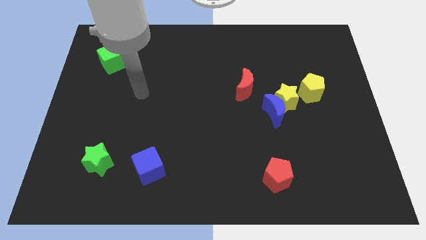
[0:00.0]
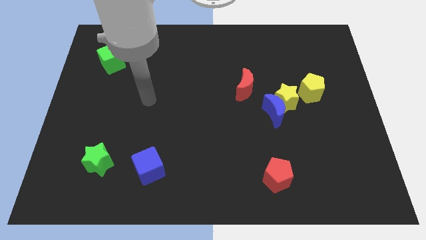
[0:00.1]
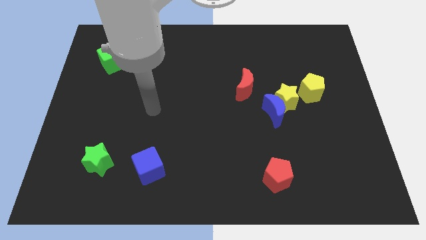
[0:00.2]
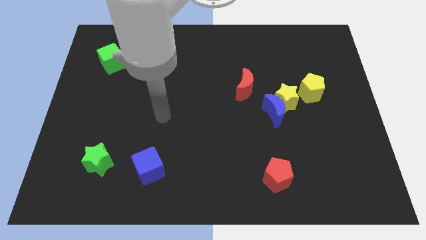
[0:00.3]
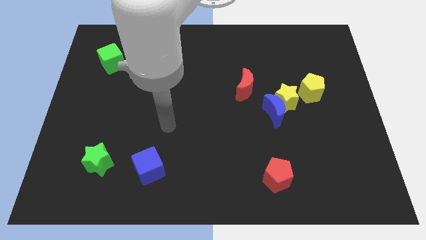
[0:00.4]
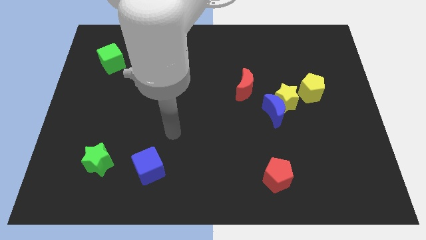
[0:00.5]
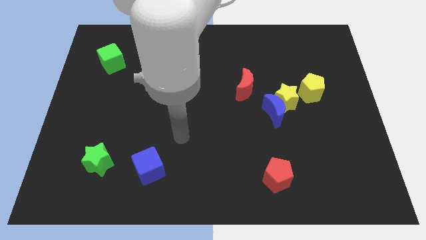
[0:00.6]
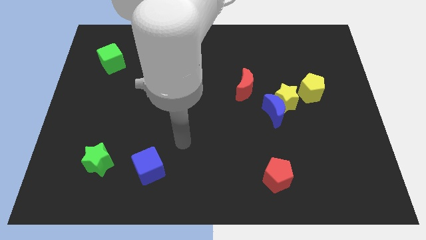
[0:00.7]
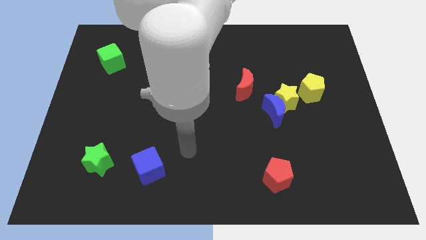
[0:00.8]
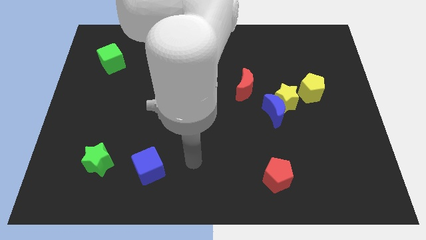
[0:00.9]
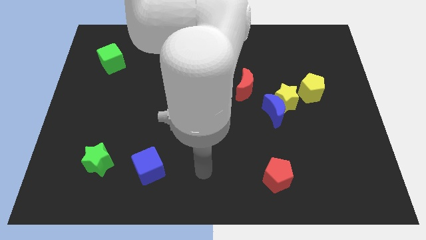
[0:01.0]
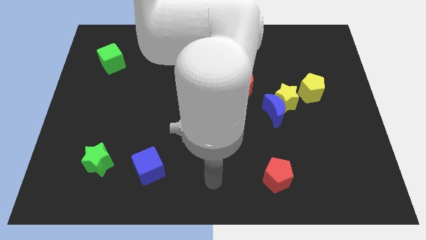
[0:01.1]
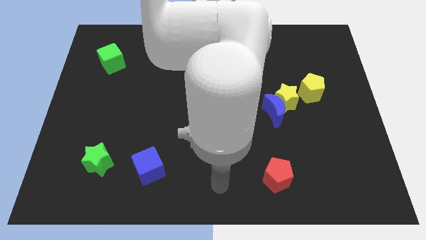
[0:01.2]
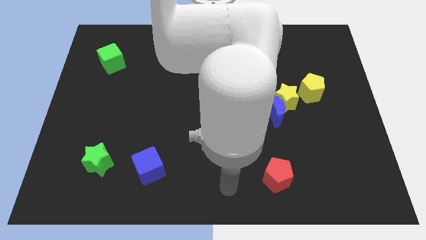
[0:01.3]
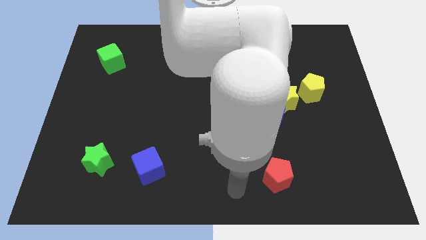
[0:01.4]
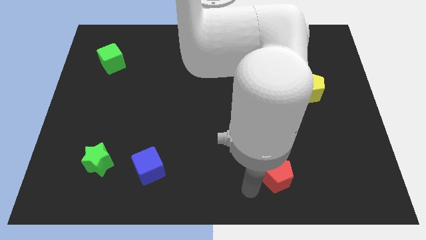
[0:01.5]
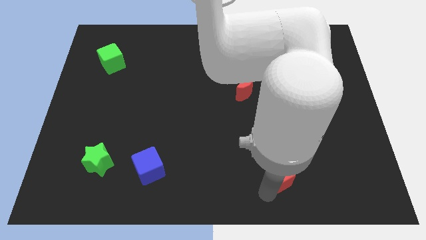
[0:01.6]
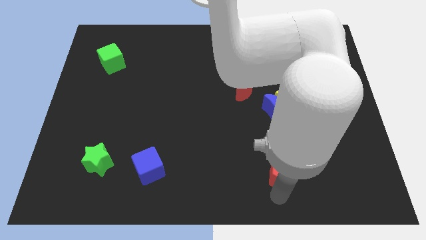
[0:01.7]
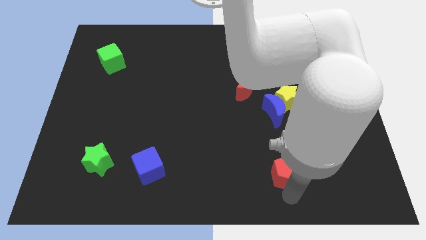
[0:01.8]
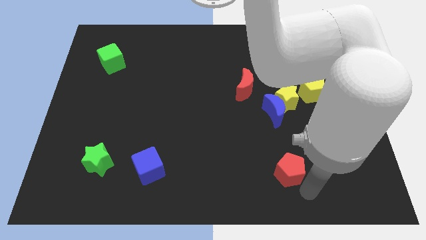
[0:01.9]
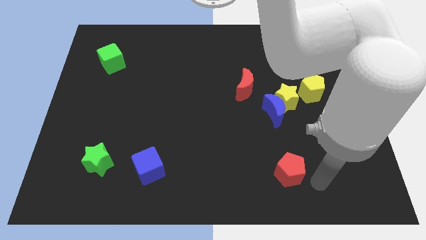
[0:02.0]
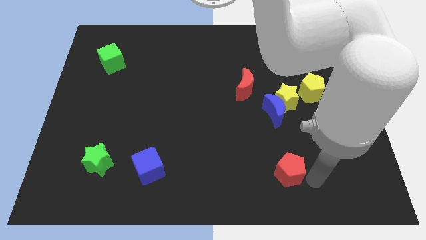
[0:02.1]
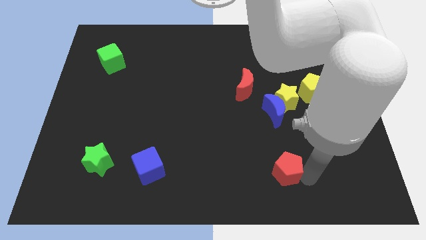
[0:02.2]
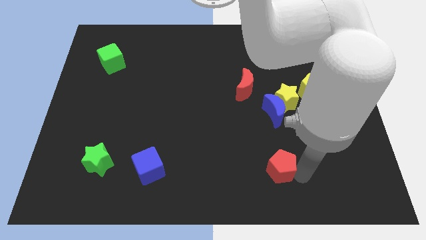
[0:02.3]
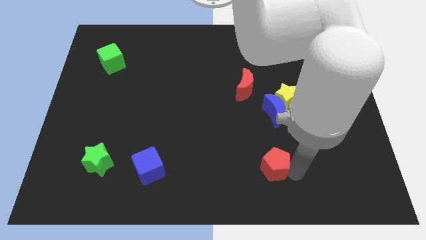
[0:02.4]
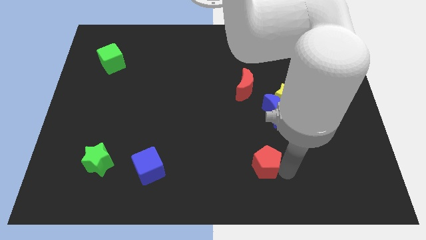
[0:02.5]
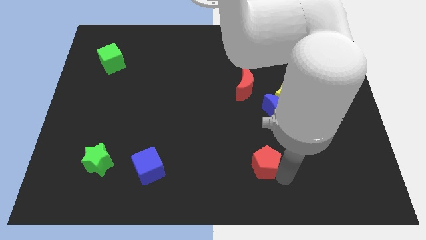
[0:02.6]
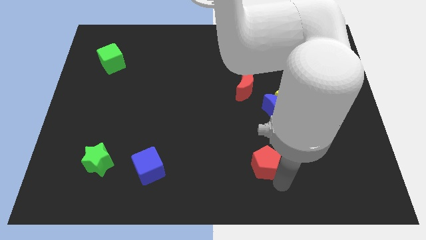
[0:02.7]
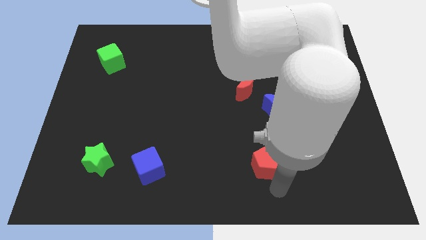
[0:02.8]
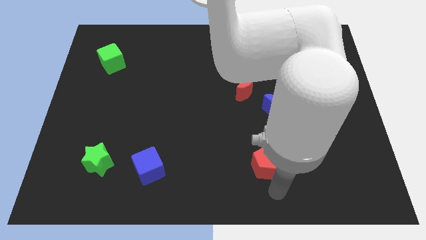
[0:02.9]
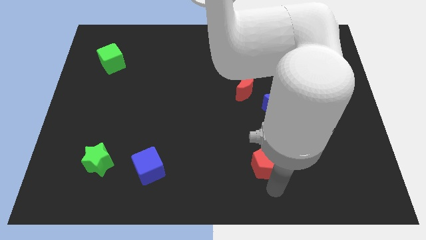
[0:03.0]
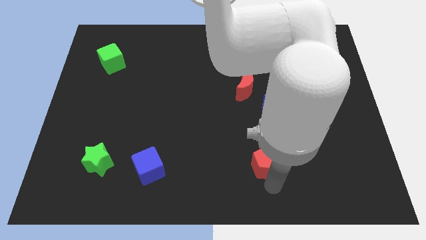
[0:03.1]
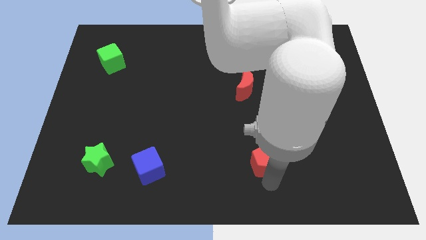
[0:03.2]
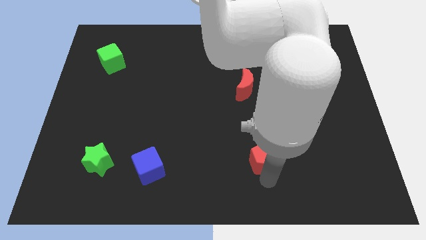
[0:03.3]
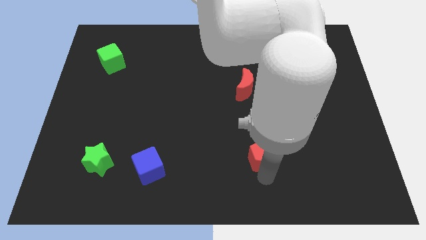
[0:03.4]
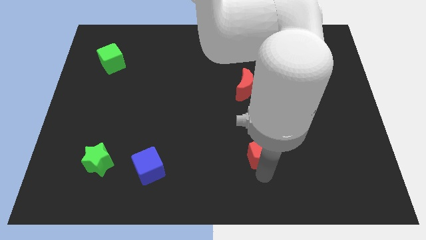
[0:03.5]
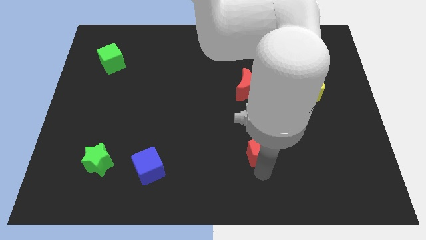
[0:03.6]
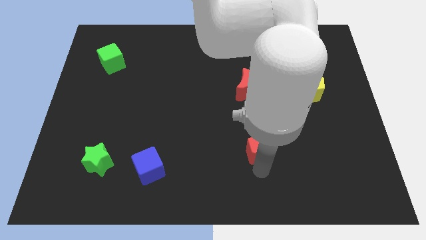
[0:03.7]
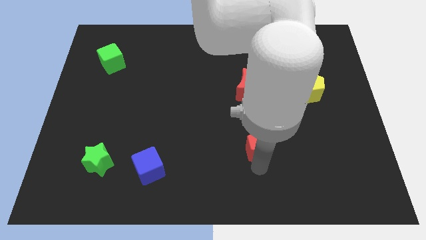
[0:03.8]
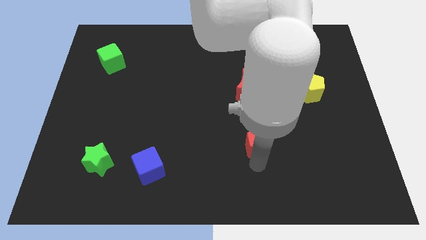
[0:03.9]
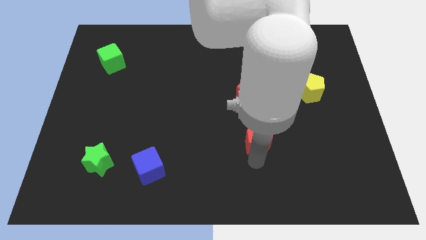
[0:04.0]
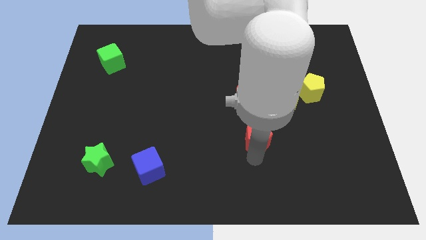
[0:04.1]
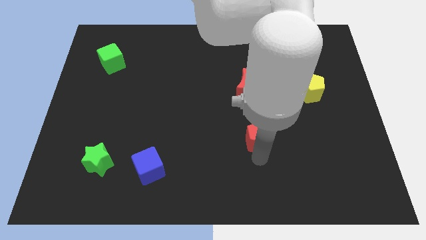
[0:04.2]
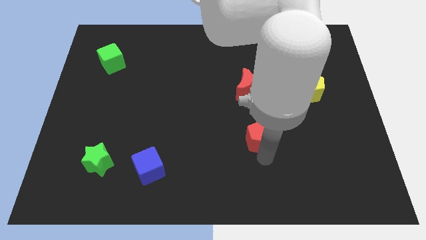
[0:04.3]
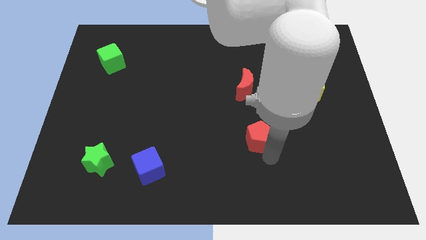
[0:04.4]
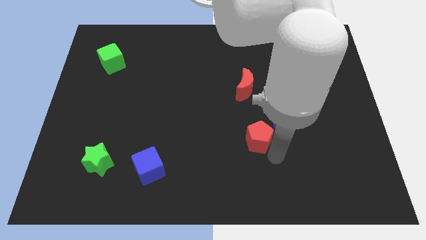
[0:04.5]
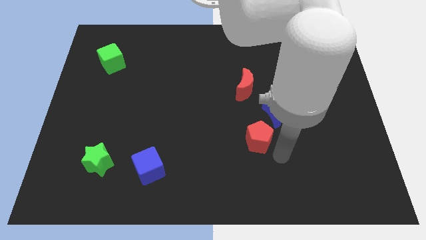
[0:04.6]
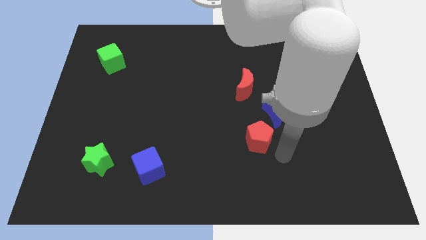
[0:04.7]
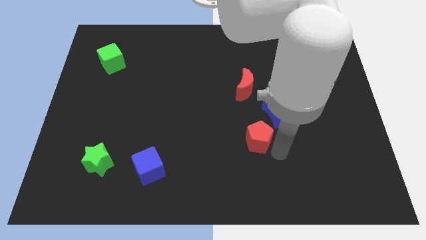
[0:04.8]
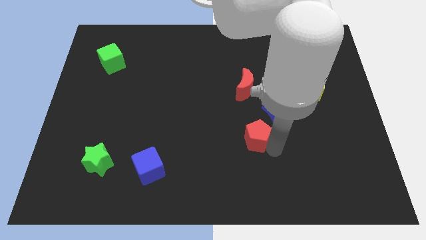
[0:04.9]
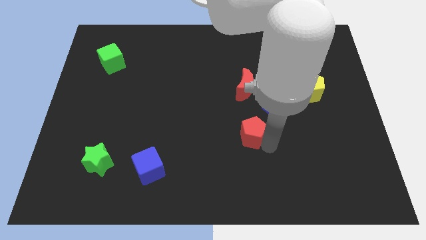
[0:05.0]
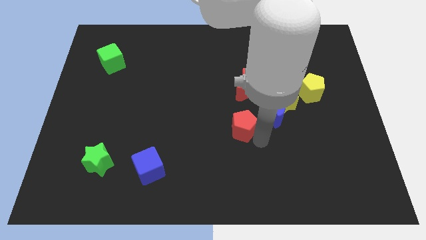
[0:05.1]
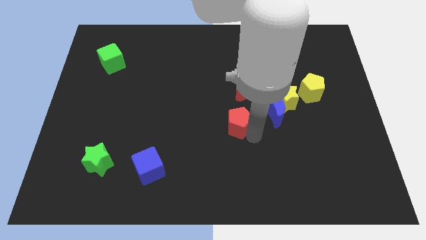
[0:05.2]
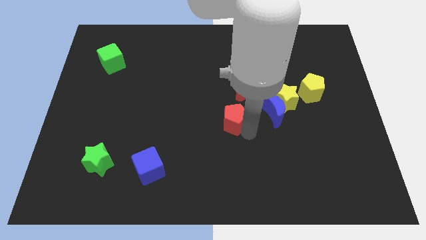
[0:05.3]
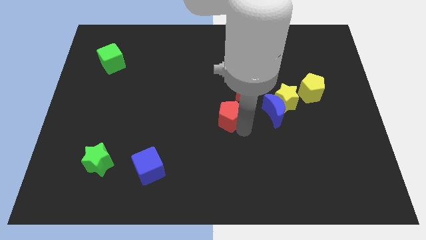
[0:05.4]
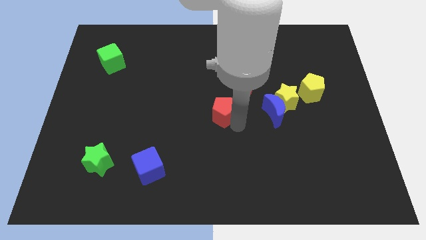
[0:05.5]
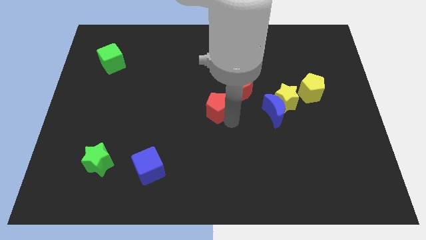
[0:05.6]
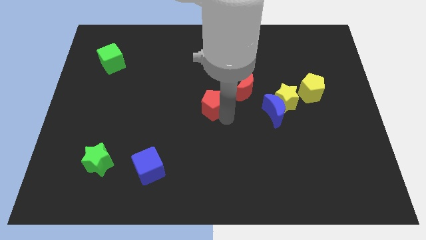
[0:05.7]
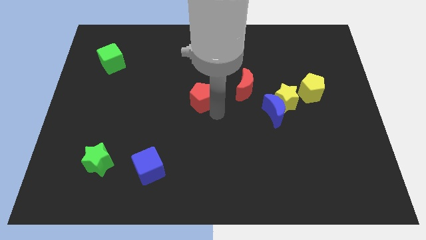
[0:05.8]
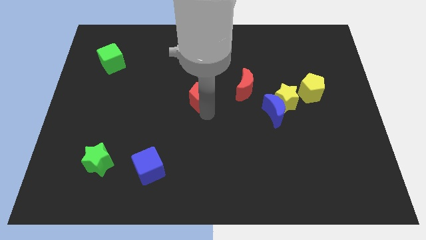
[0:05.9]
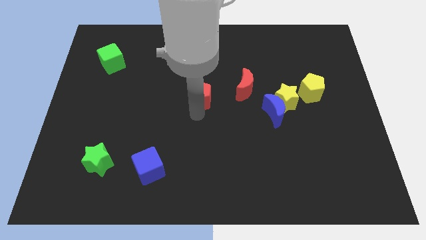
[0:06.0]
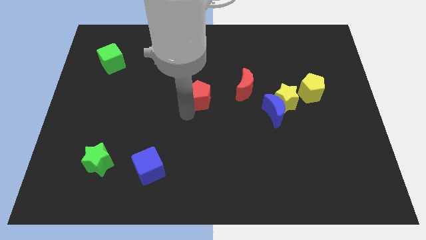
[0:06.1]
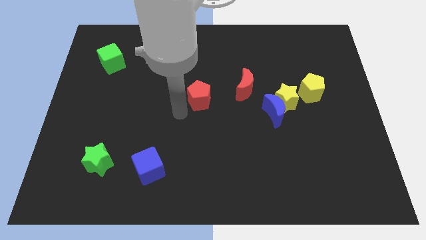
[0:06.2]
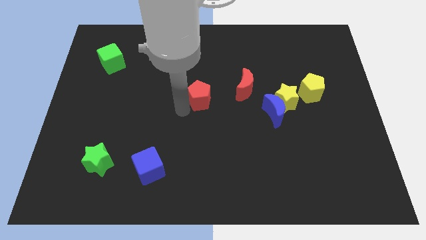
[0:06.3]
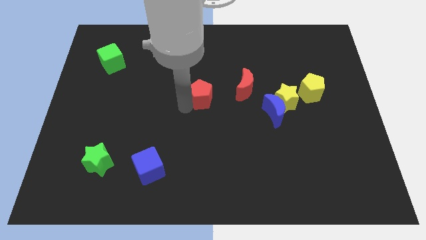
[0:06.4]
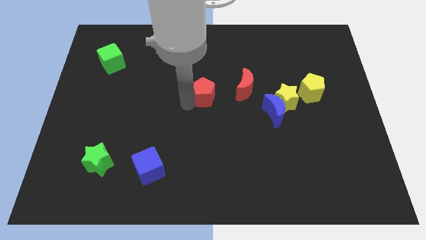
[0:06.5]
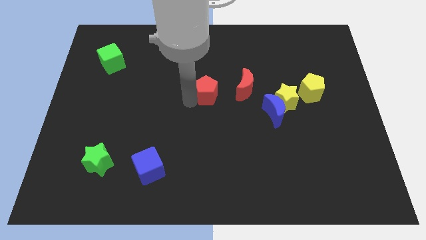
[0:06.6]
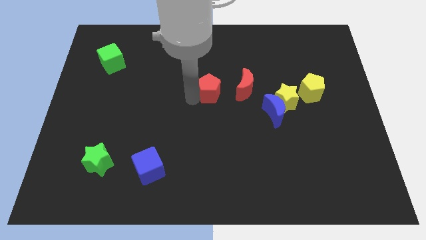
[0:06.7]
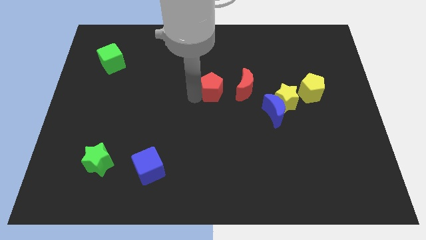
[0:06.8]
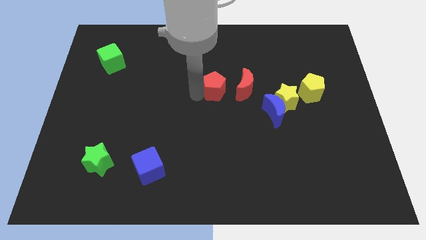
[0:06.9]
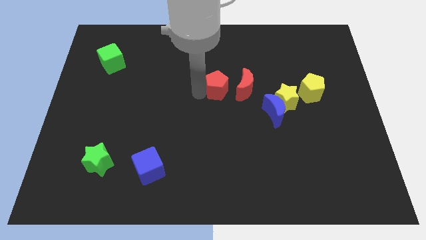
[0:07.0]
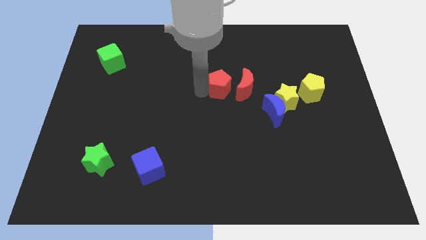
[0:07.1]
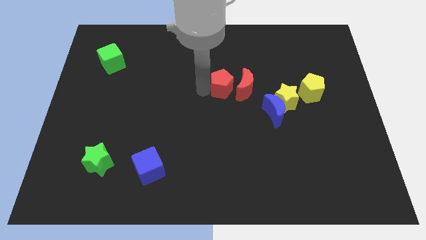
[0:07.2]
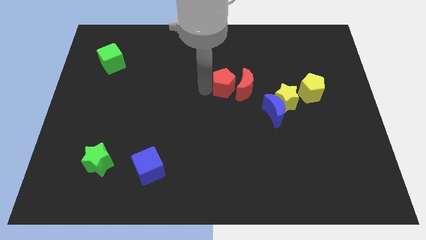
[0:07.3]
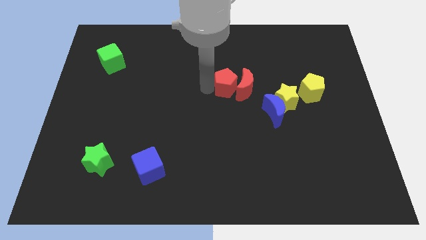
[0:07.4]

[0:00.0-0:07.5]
push the red pentagon upwards

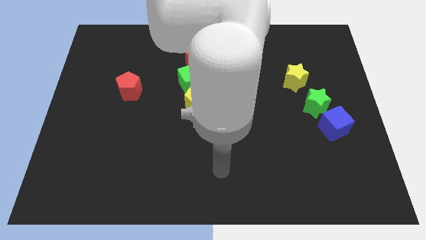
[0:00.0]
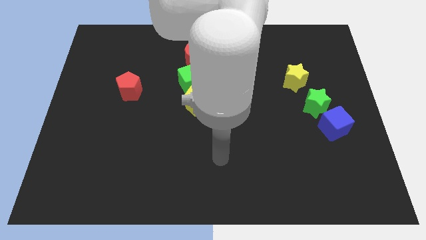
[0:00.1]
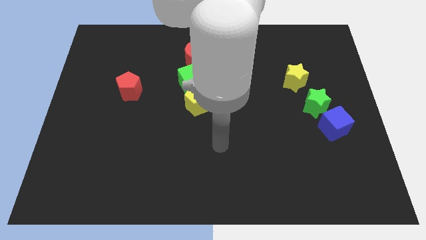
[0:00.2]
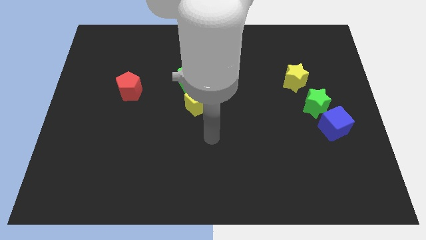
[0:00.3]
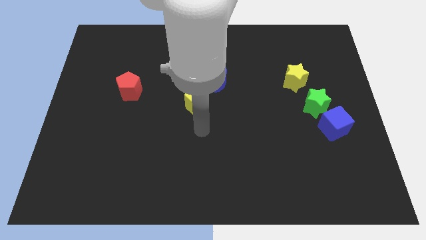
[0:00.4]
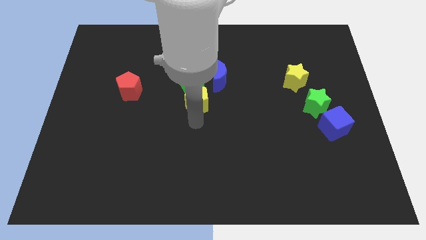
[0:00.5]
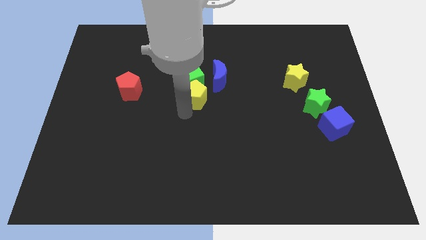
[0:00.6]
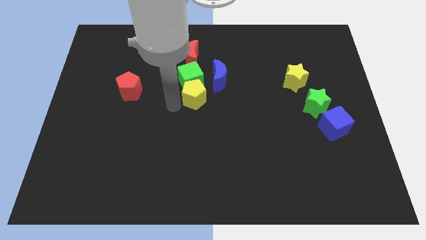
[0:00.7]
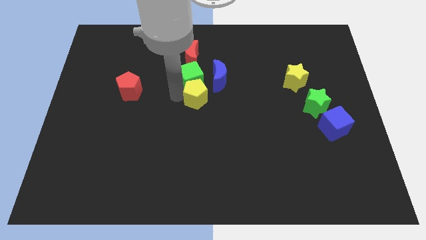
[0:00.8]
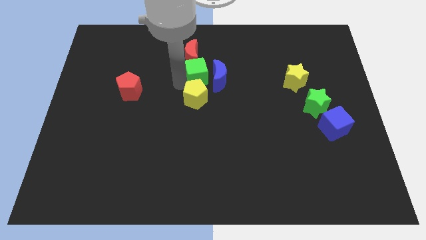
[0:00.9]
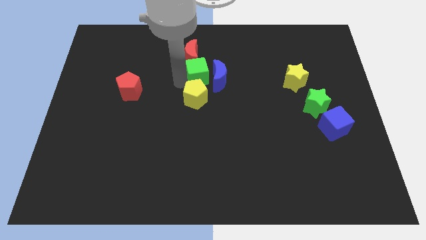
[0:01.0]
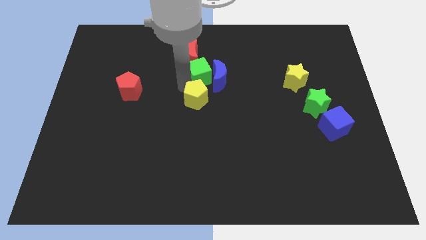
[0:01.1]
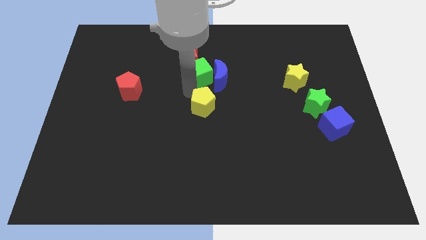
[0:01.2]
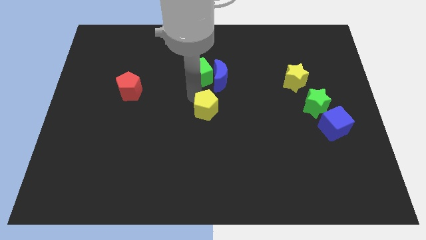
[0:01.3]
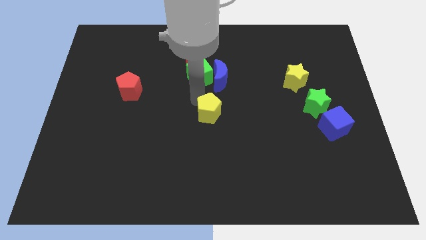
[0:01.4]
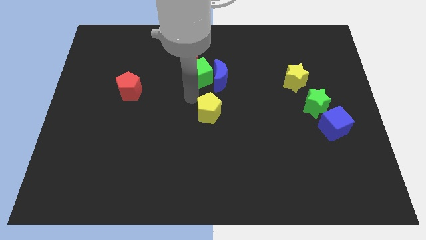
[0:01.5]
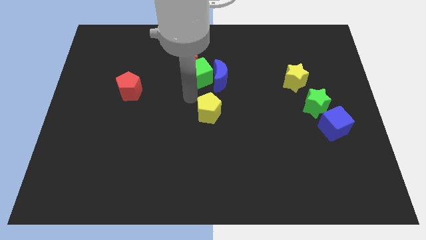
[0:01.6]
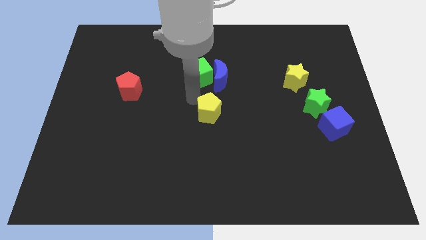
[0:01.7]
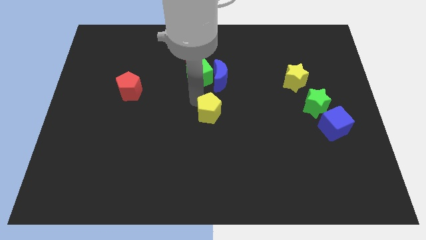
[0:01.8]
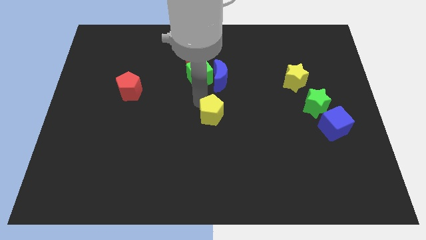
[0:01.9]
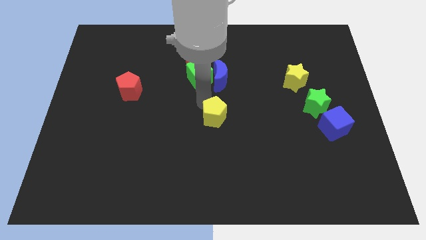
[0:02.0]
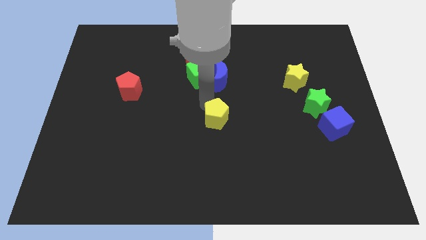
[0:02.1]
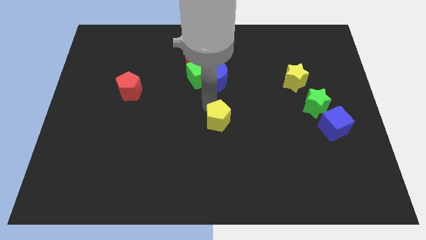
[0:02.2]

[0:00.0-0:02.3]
slightly move the yellow pentagon diagonally down and right
